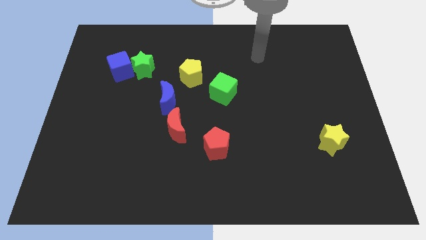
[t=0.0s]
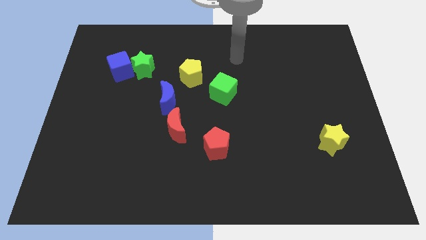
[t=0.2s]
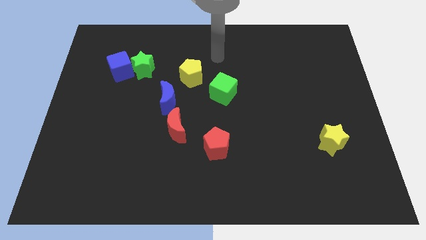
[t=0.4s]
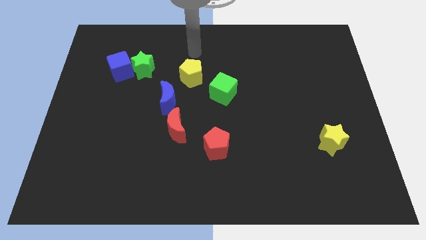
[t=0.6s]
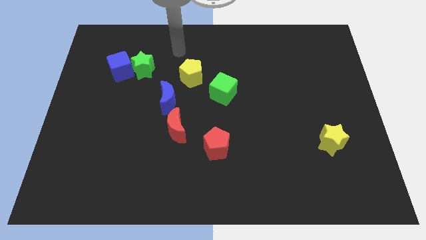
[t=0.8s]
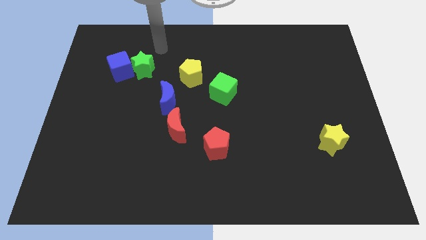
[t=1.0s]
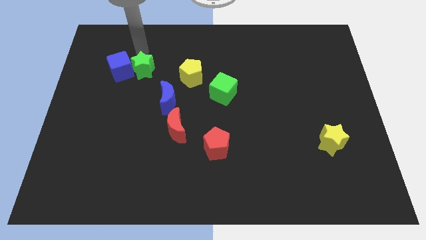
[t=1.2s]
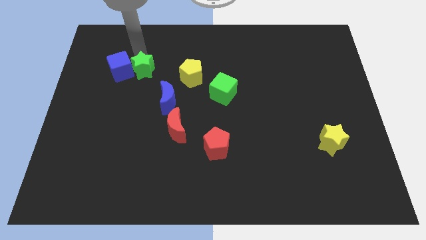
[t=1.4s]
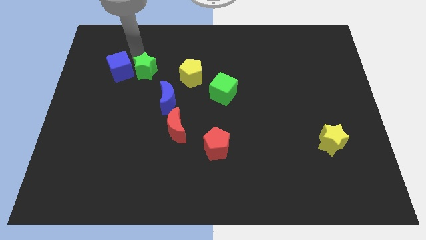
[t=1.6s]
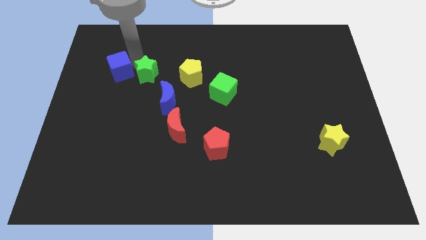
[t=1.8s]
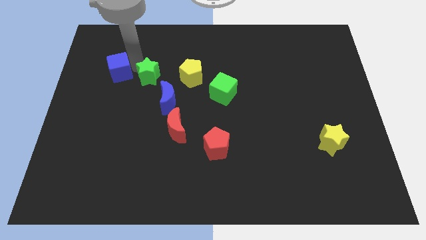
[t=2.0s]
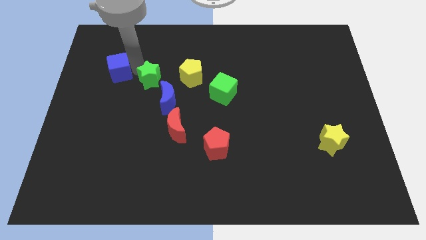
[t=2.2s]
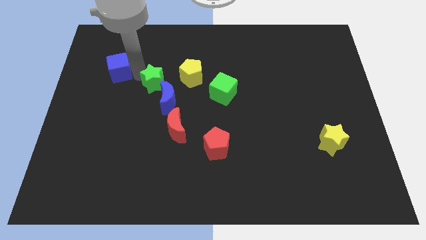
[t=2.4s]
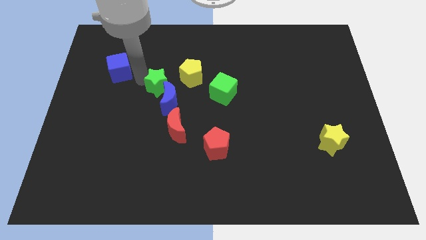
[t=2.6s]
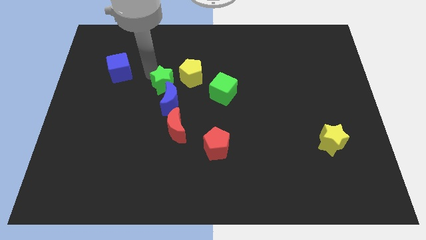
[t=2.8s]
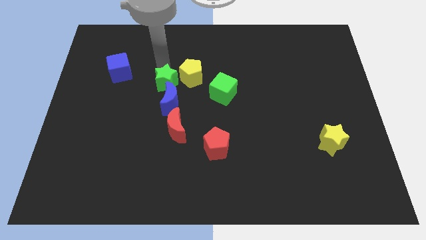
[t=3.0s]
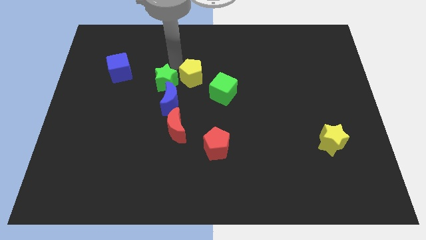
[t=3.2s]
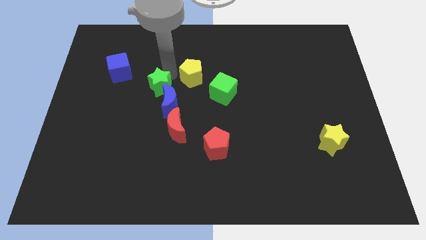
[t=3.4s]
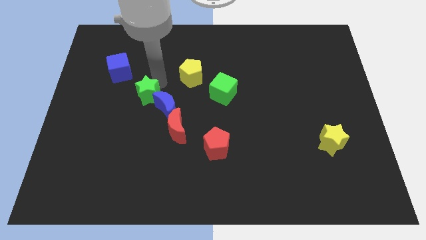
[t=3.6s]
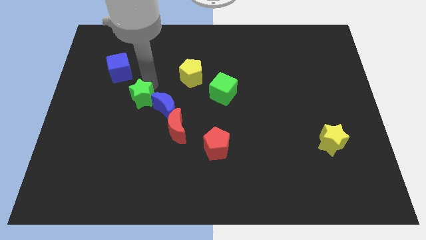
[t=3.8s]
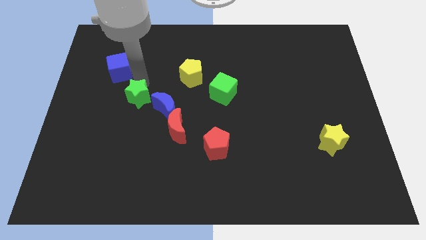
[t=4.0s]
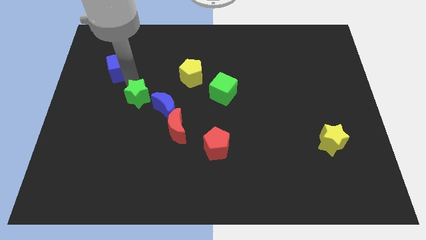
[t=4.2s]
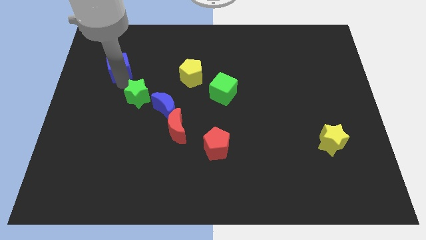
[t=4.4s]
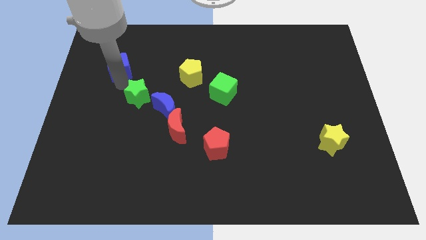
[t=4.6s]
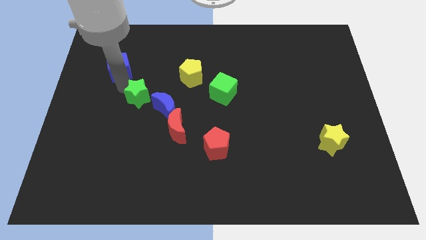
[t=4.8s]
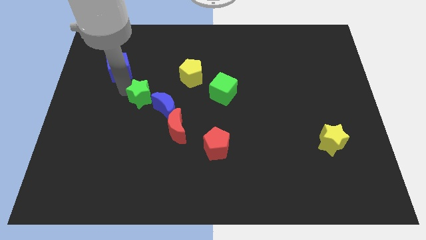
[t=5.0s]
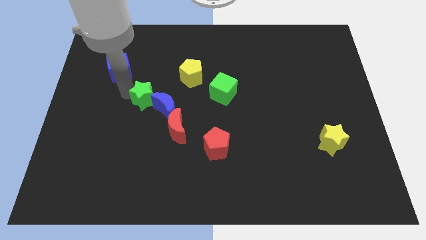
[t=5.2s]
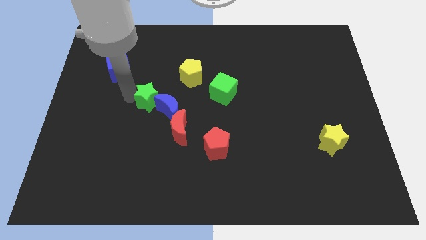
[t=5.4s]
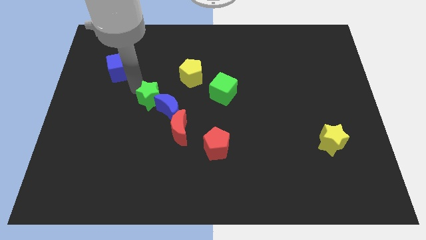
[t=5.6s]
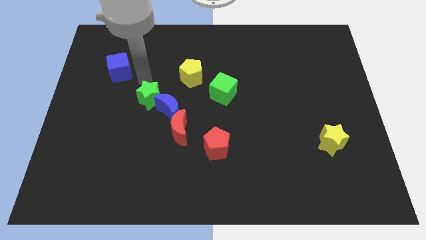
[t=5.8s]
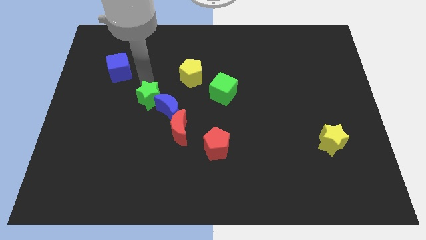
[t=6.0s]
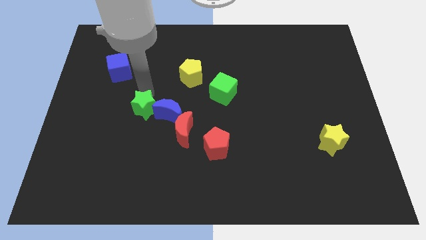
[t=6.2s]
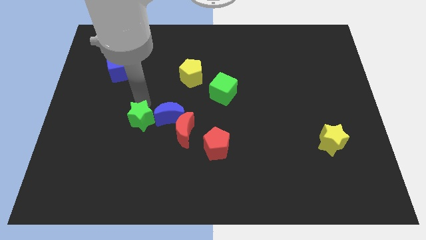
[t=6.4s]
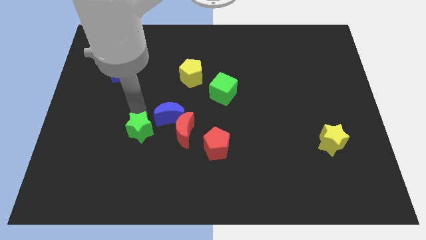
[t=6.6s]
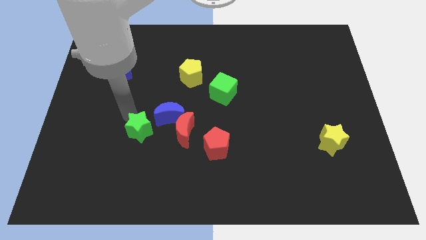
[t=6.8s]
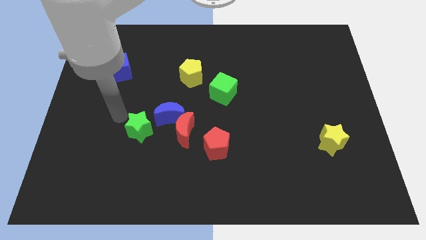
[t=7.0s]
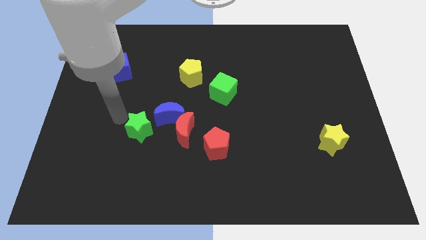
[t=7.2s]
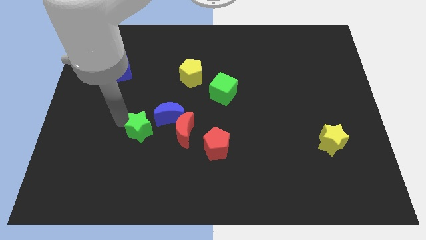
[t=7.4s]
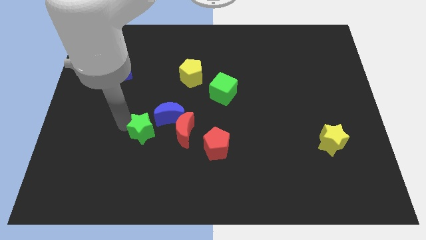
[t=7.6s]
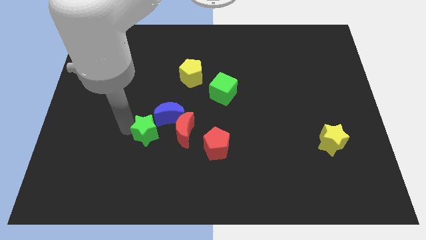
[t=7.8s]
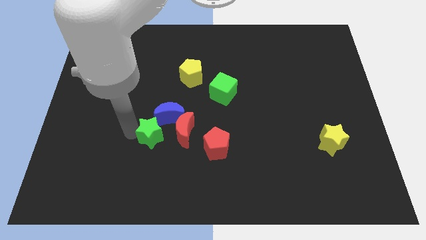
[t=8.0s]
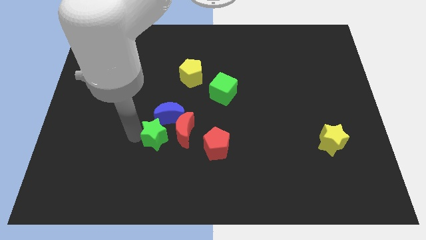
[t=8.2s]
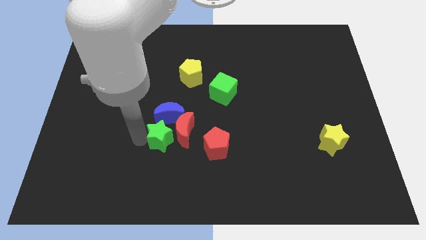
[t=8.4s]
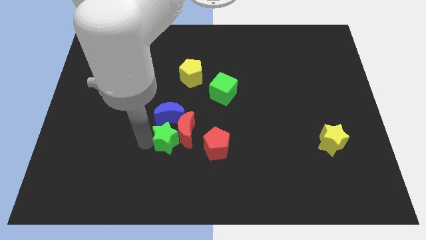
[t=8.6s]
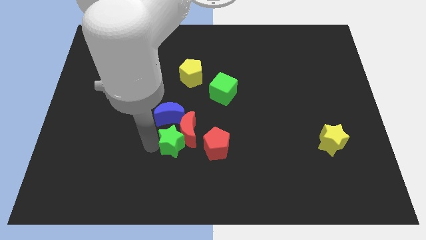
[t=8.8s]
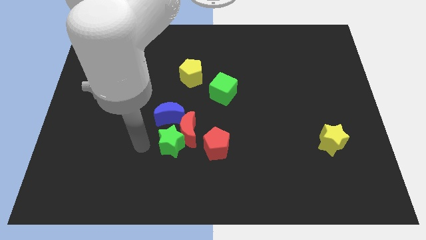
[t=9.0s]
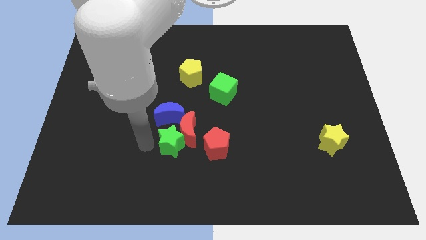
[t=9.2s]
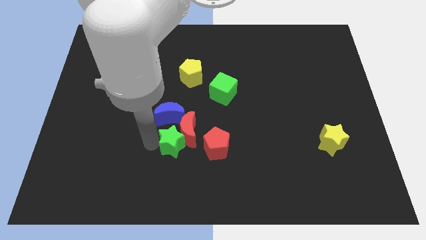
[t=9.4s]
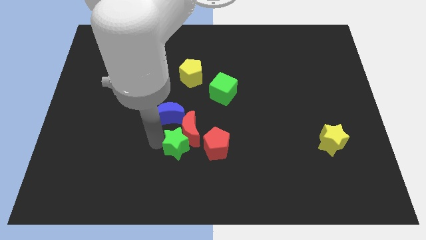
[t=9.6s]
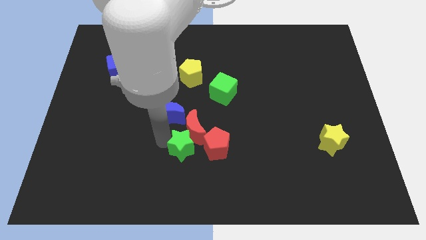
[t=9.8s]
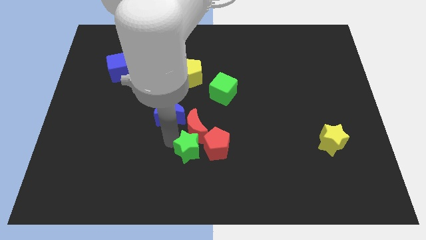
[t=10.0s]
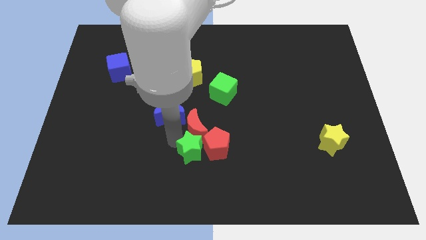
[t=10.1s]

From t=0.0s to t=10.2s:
push the green star close to the red pentagon

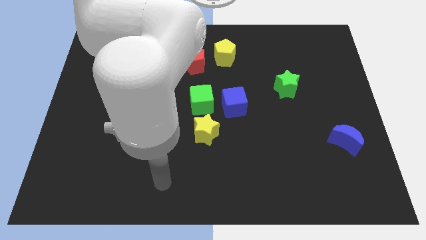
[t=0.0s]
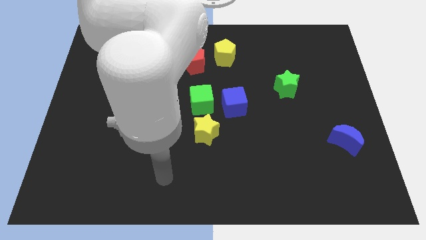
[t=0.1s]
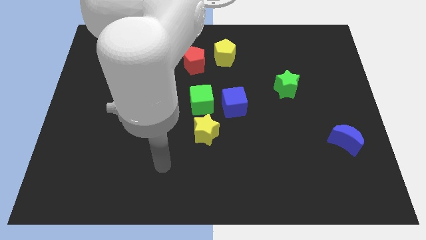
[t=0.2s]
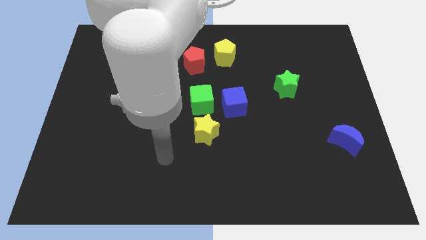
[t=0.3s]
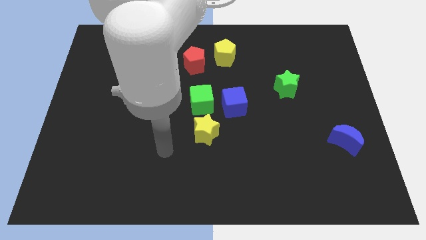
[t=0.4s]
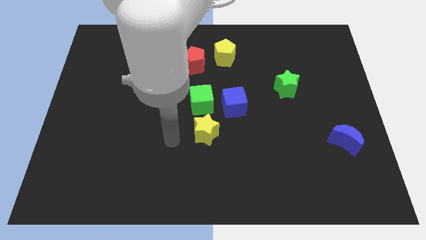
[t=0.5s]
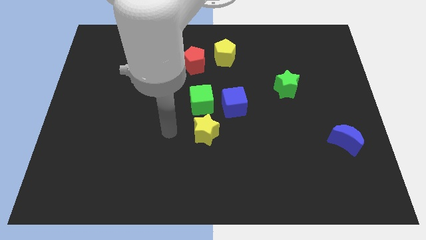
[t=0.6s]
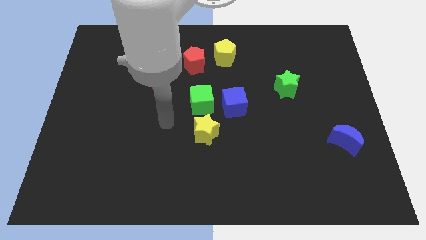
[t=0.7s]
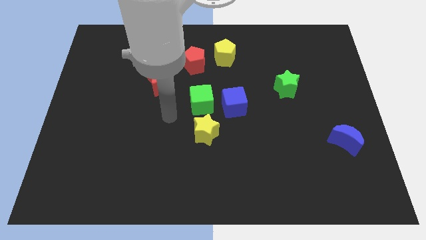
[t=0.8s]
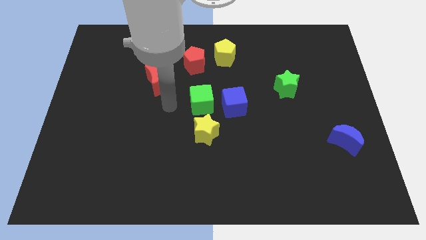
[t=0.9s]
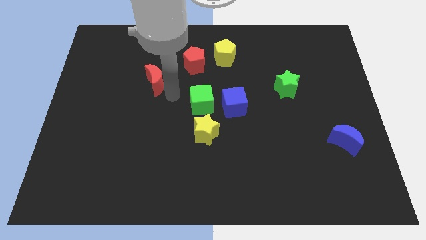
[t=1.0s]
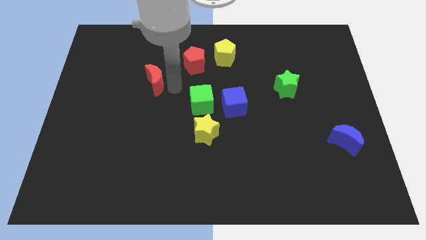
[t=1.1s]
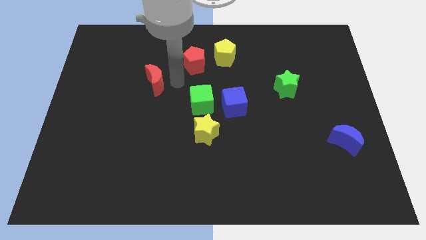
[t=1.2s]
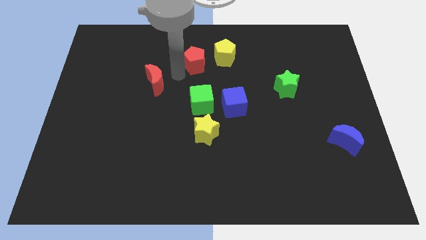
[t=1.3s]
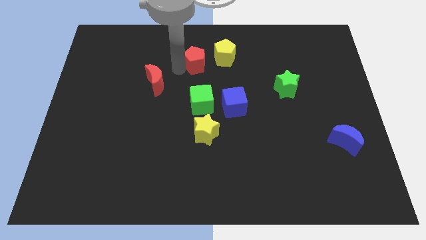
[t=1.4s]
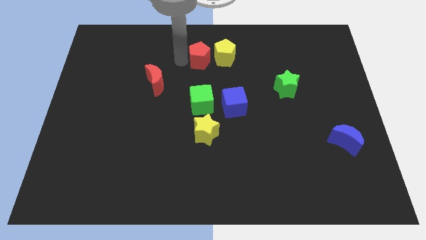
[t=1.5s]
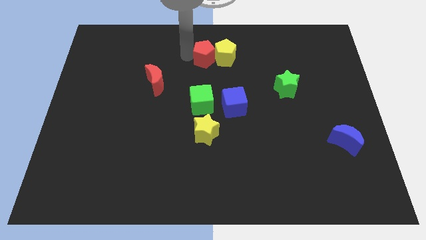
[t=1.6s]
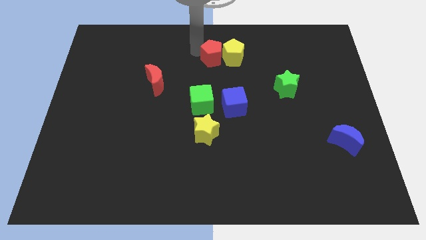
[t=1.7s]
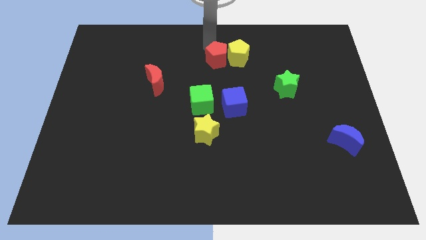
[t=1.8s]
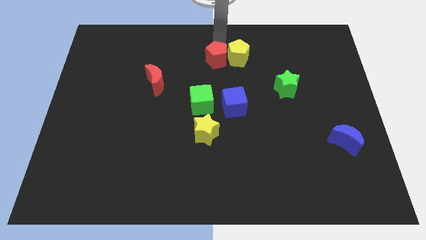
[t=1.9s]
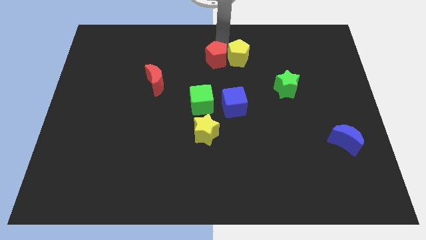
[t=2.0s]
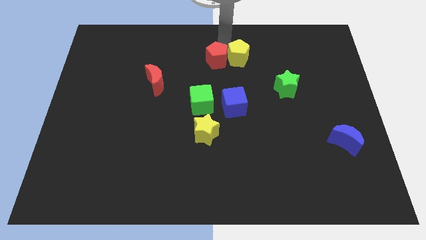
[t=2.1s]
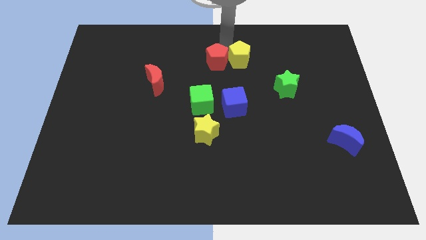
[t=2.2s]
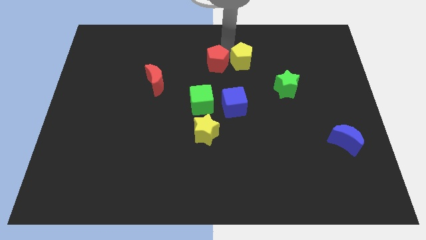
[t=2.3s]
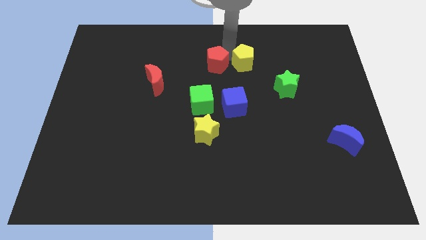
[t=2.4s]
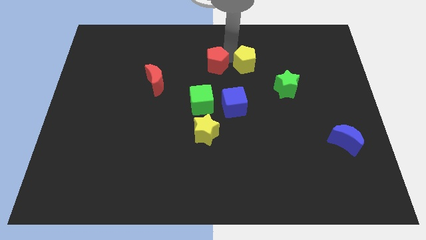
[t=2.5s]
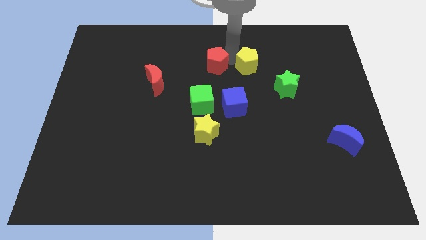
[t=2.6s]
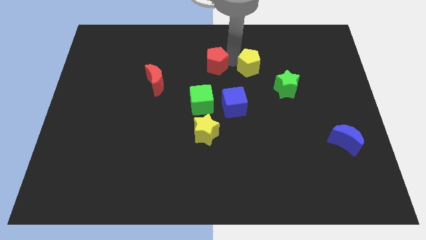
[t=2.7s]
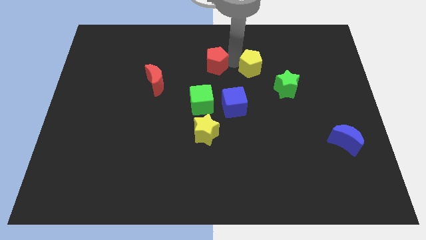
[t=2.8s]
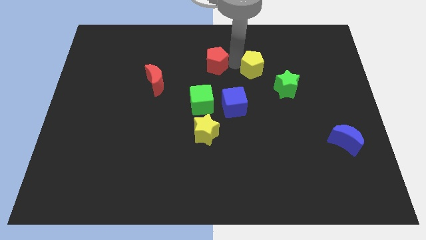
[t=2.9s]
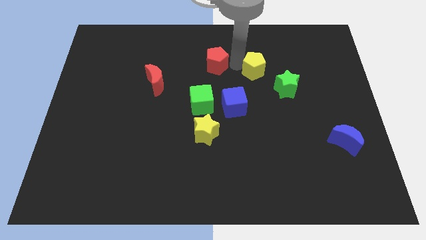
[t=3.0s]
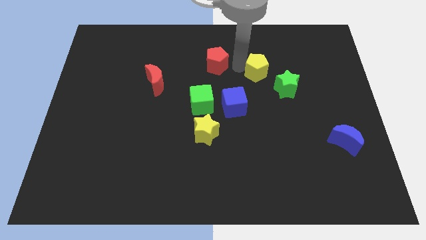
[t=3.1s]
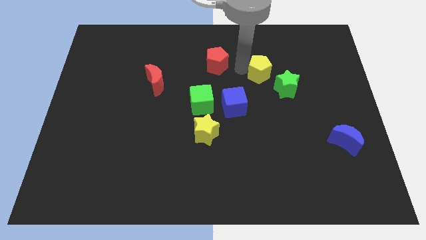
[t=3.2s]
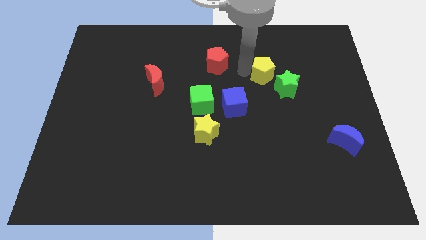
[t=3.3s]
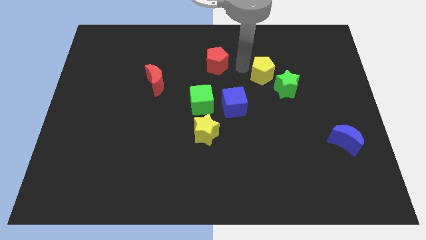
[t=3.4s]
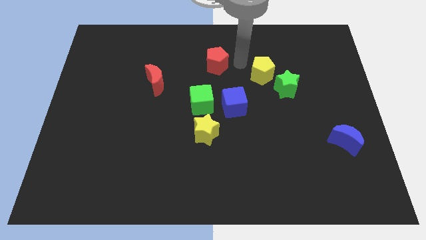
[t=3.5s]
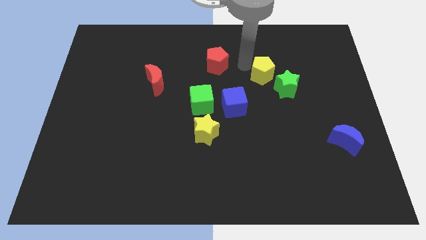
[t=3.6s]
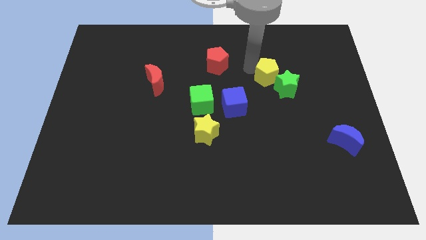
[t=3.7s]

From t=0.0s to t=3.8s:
move the yellow pentagon to the green star
